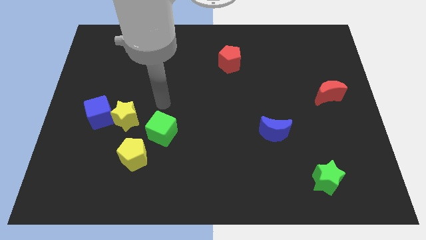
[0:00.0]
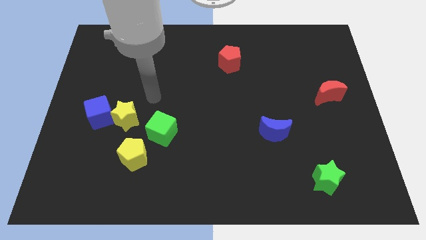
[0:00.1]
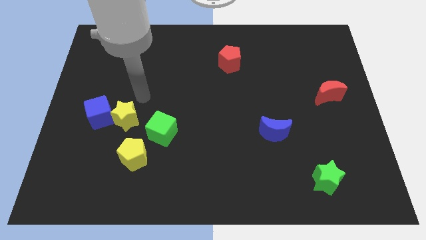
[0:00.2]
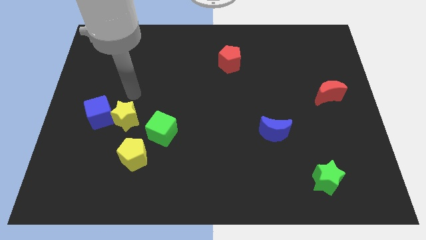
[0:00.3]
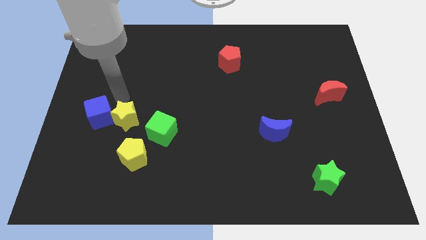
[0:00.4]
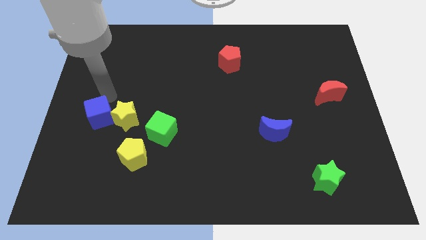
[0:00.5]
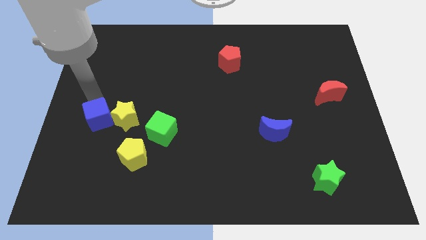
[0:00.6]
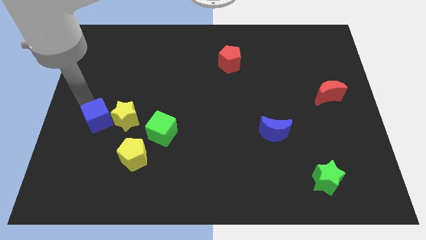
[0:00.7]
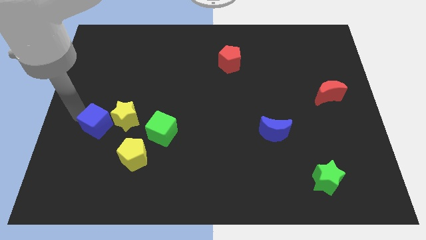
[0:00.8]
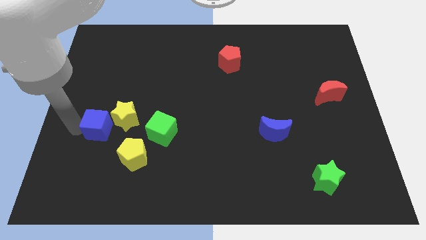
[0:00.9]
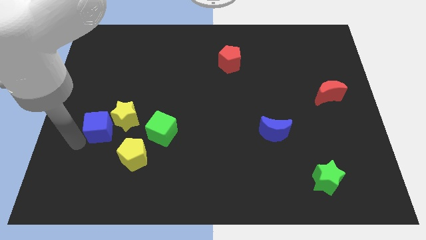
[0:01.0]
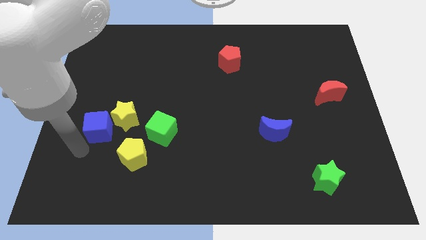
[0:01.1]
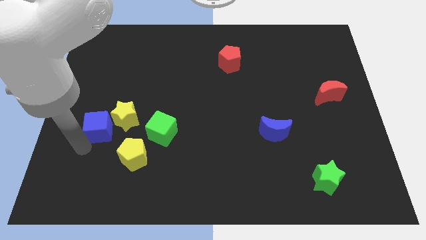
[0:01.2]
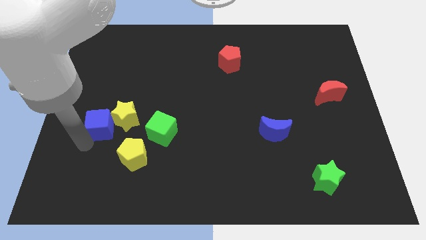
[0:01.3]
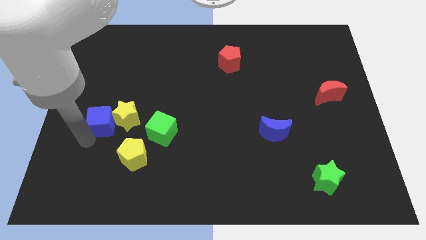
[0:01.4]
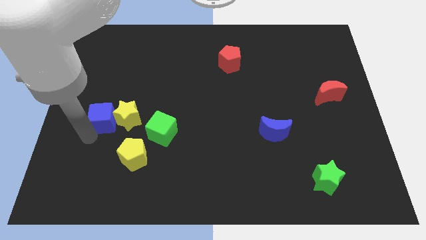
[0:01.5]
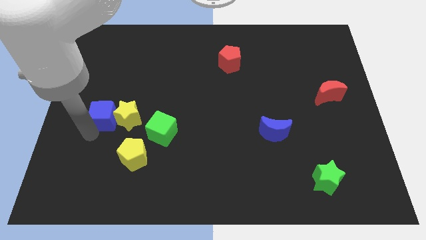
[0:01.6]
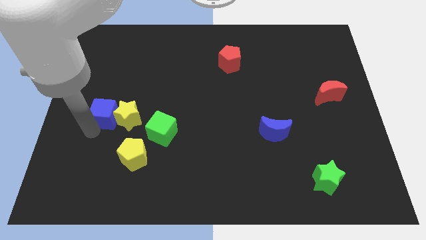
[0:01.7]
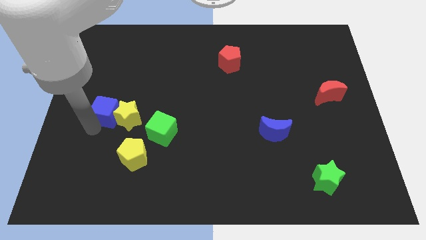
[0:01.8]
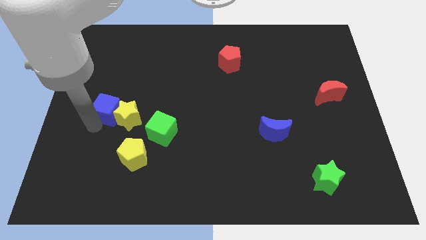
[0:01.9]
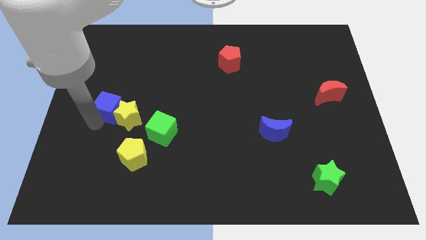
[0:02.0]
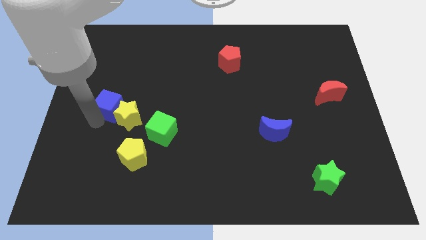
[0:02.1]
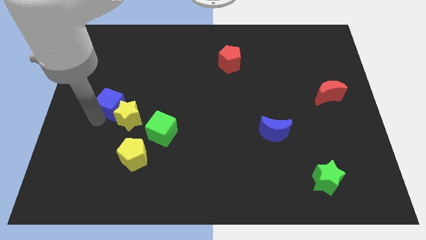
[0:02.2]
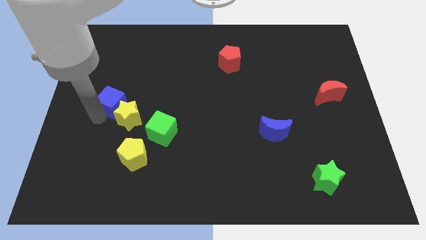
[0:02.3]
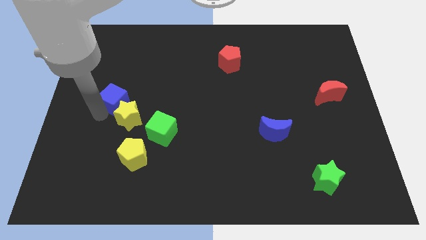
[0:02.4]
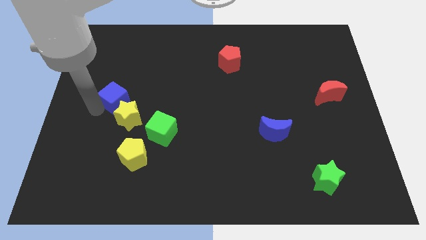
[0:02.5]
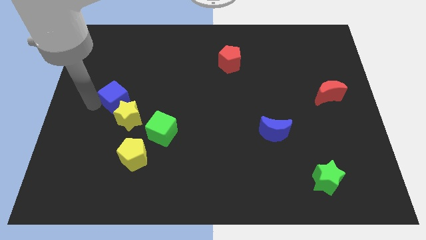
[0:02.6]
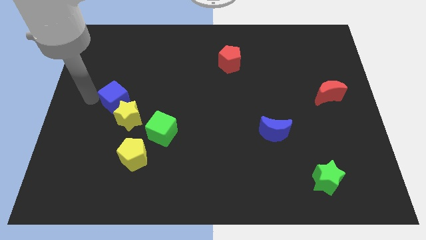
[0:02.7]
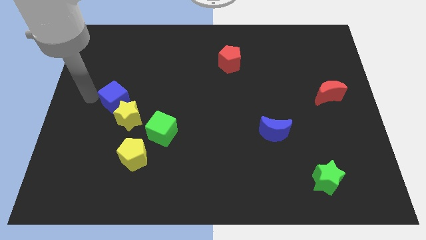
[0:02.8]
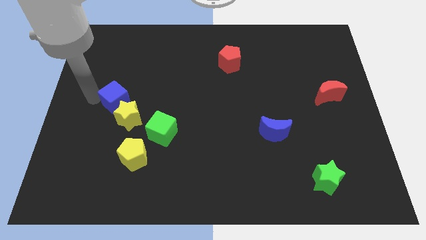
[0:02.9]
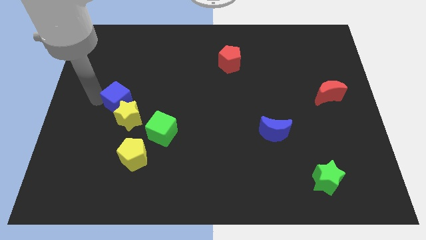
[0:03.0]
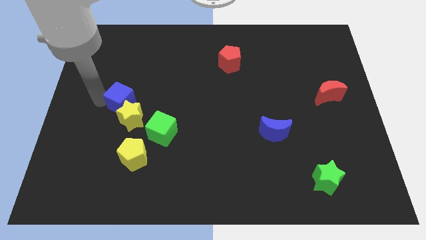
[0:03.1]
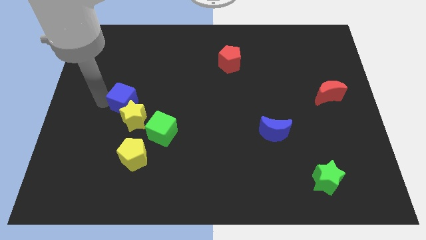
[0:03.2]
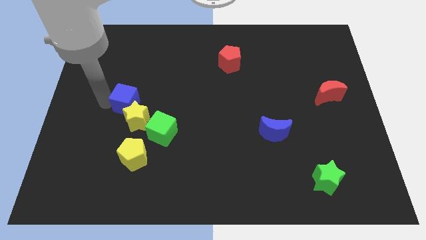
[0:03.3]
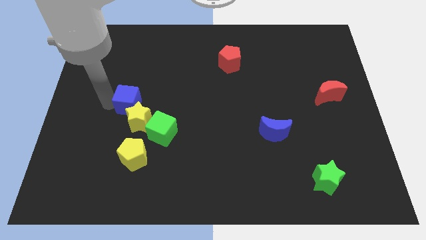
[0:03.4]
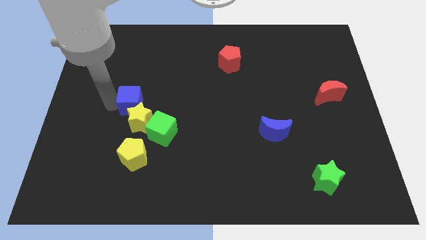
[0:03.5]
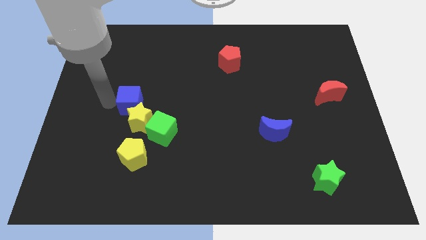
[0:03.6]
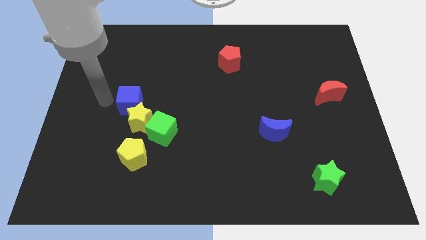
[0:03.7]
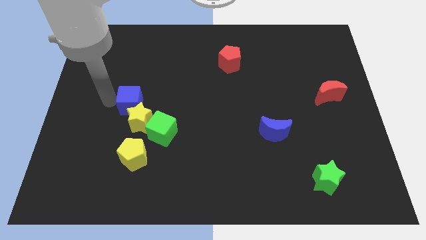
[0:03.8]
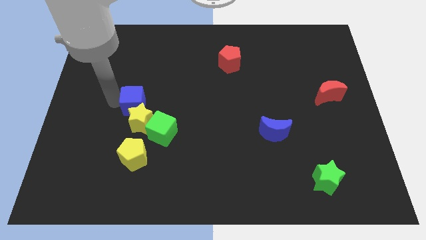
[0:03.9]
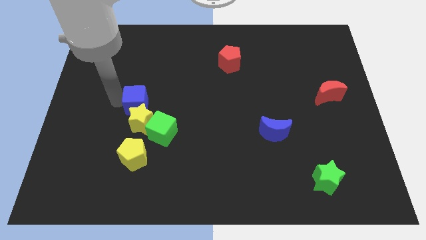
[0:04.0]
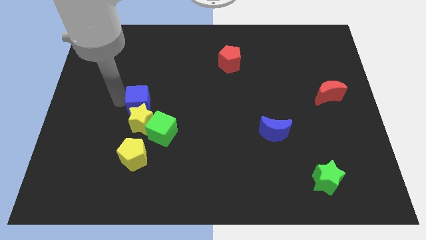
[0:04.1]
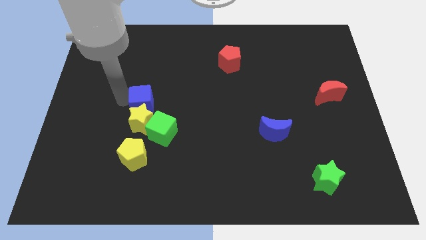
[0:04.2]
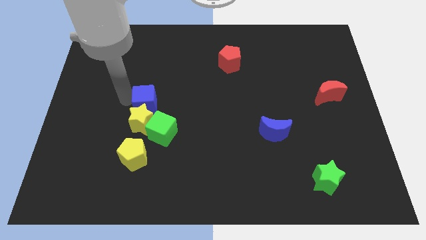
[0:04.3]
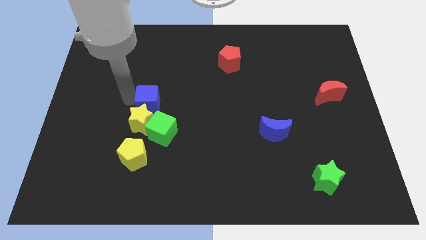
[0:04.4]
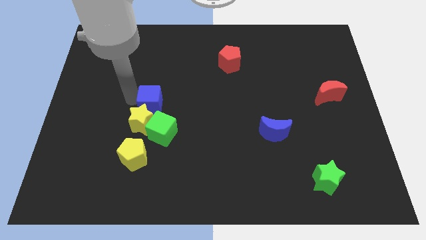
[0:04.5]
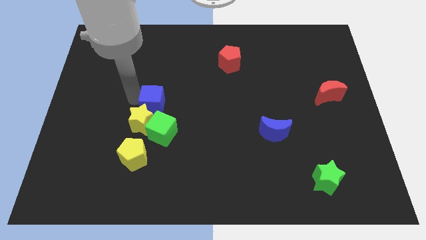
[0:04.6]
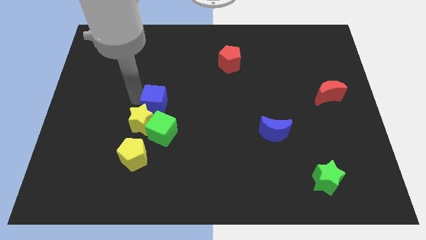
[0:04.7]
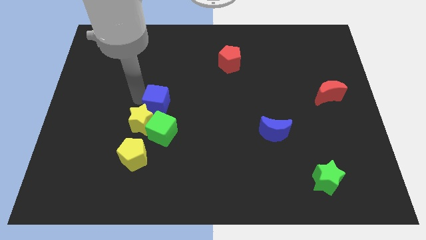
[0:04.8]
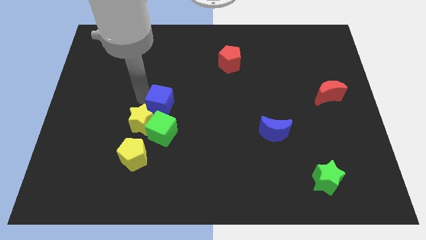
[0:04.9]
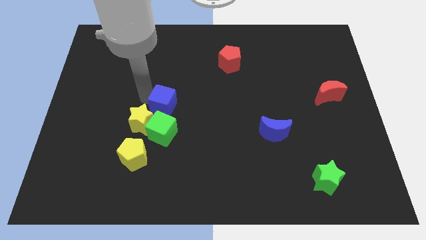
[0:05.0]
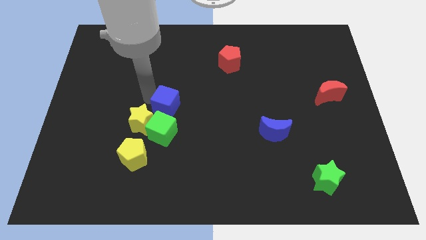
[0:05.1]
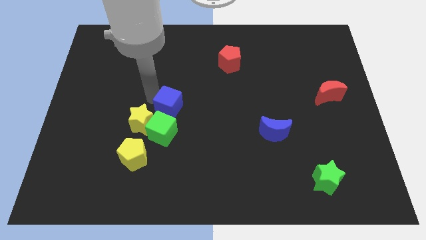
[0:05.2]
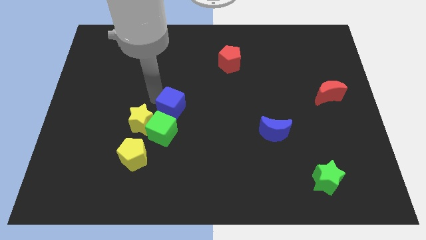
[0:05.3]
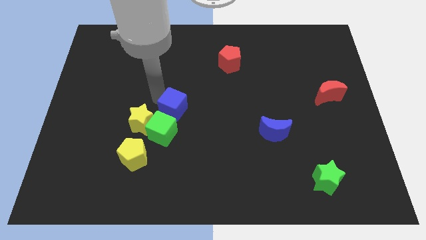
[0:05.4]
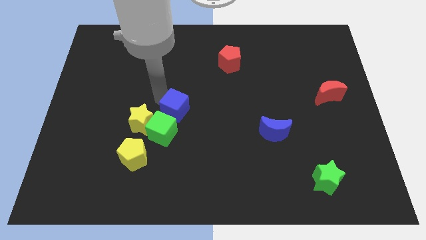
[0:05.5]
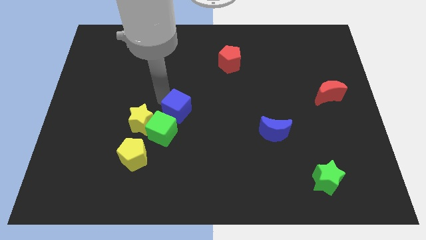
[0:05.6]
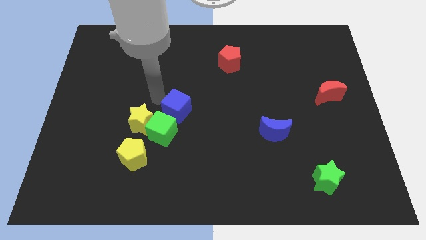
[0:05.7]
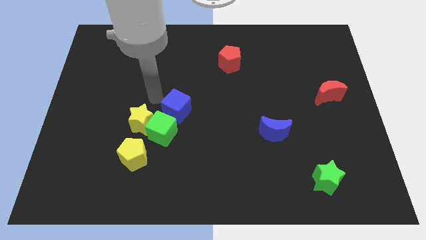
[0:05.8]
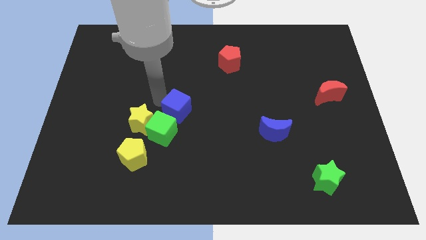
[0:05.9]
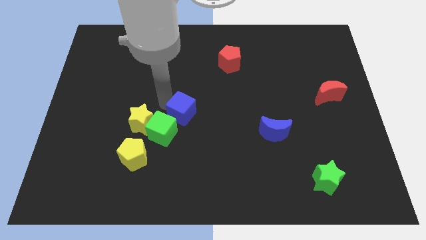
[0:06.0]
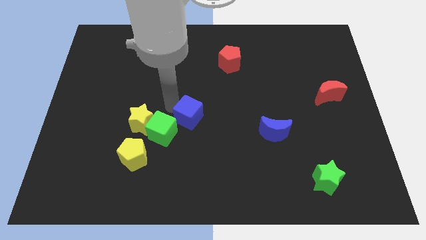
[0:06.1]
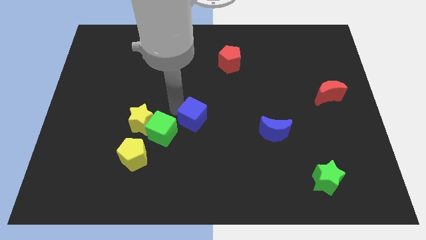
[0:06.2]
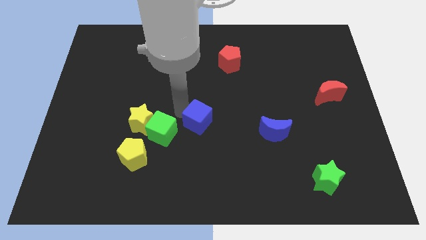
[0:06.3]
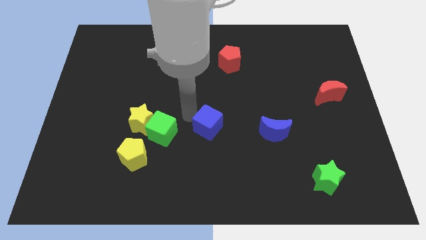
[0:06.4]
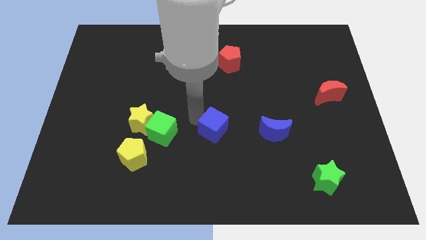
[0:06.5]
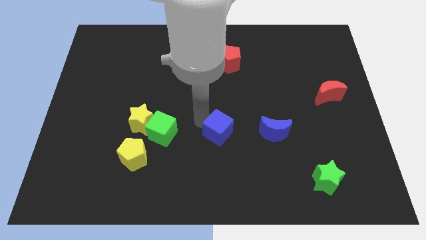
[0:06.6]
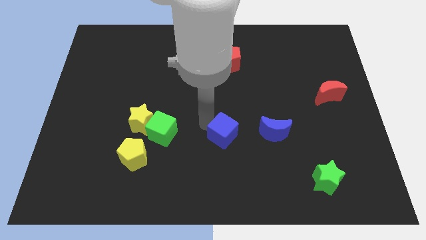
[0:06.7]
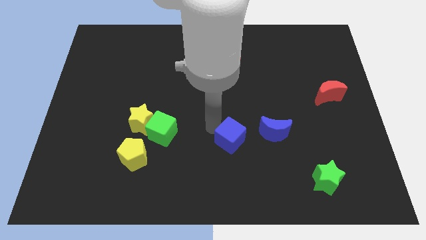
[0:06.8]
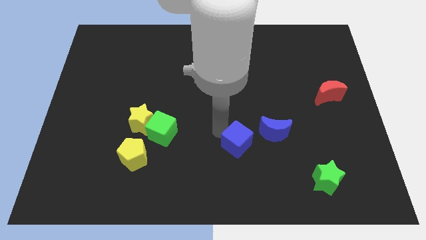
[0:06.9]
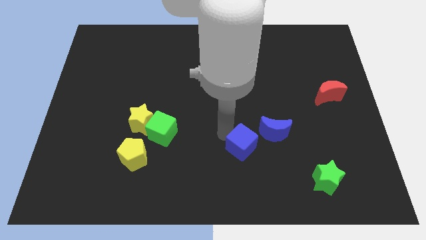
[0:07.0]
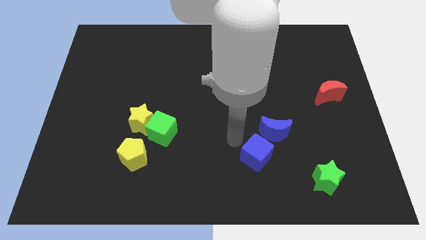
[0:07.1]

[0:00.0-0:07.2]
put the blue cube below the blue moon

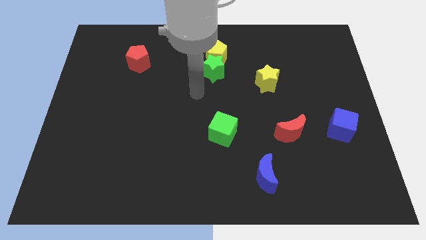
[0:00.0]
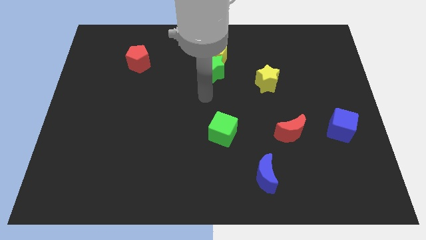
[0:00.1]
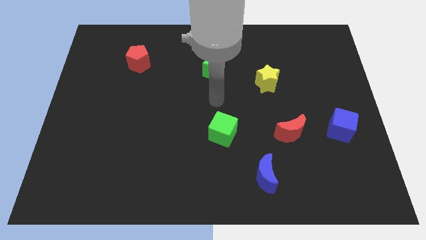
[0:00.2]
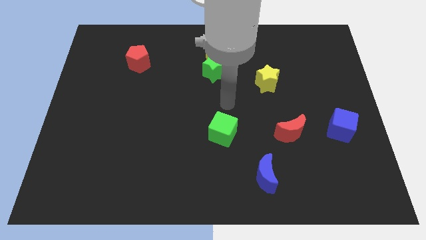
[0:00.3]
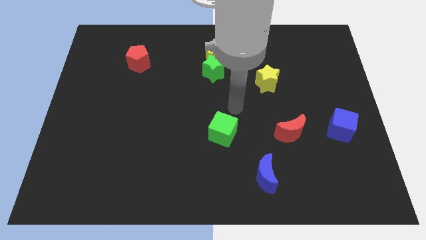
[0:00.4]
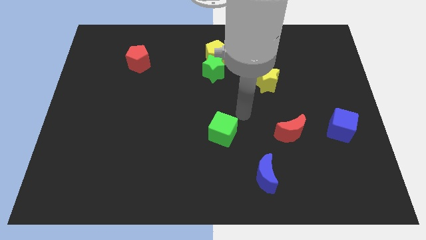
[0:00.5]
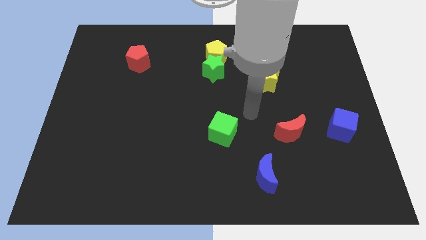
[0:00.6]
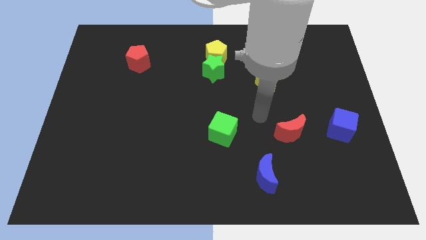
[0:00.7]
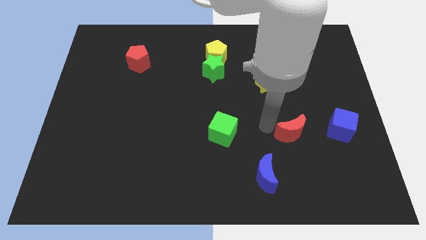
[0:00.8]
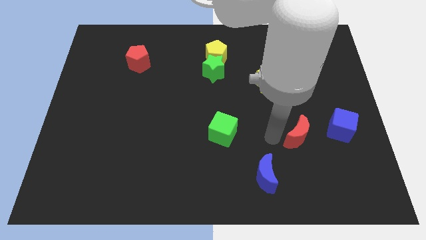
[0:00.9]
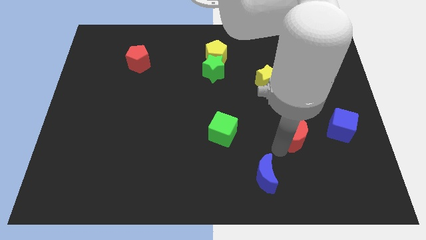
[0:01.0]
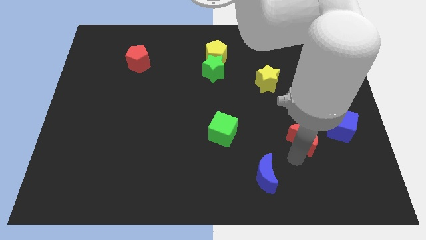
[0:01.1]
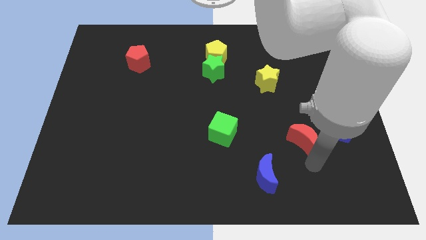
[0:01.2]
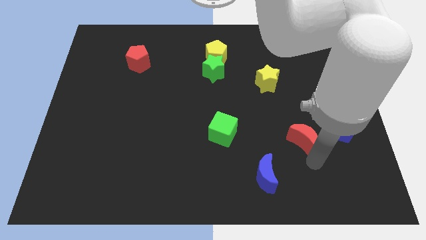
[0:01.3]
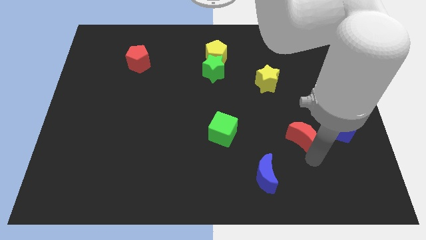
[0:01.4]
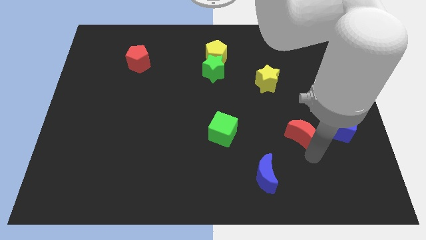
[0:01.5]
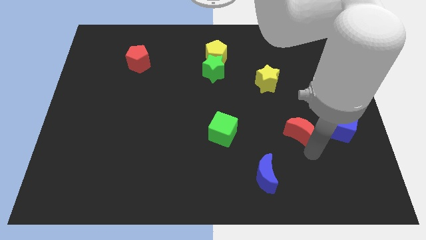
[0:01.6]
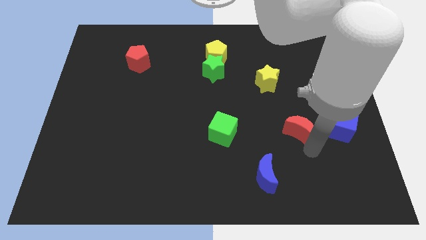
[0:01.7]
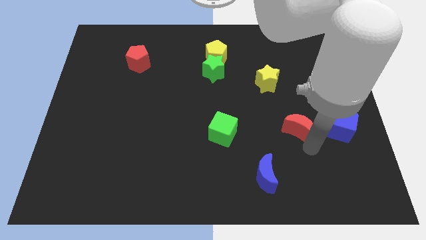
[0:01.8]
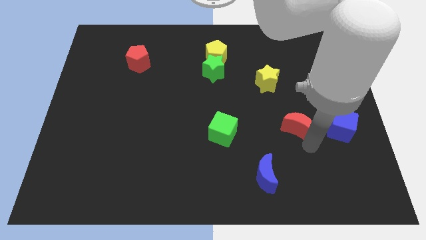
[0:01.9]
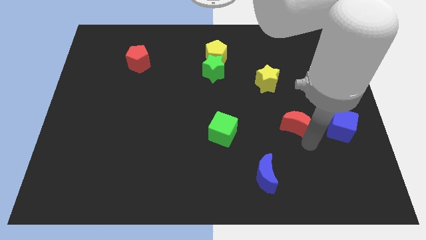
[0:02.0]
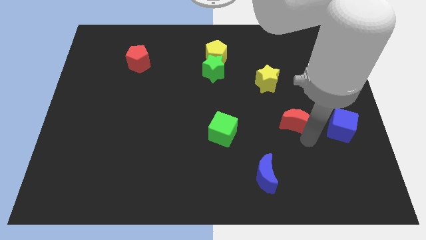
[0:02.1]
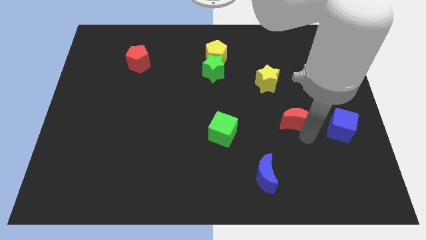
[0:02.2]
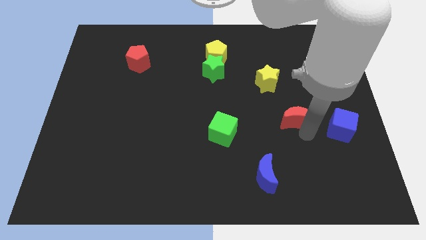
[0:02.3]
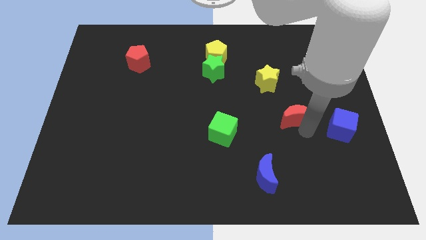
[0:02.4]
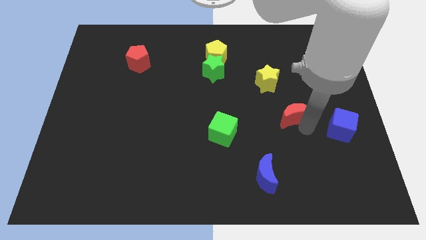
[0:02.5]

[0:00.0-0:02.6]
move the red moon to the bottom right side of the yellow star
